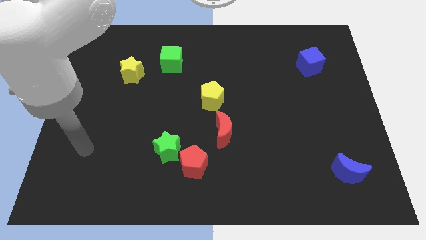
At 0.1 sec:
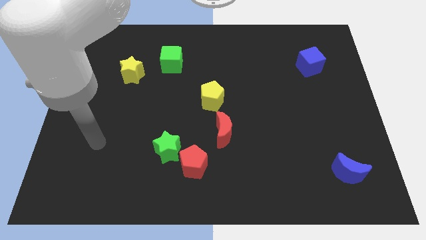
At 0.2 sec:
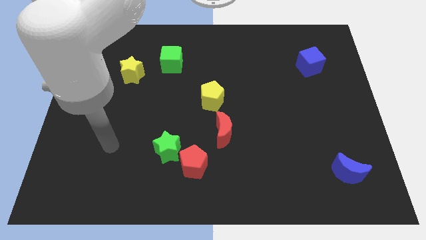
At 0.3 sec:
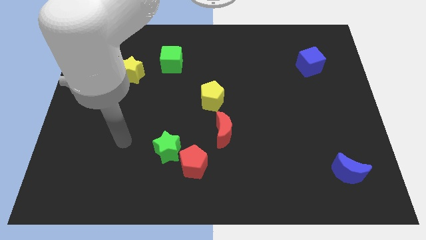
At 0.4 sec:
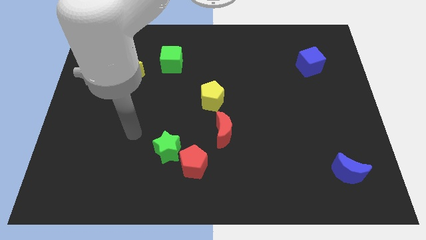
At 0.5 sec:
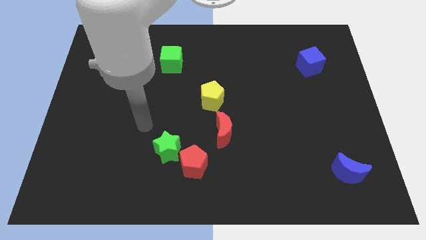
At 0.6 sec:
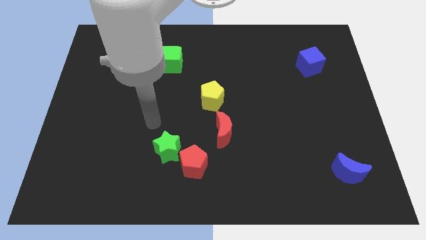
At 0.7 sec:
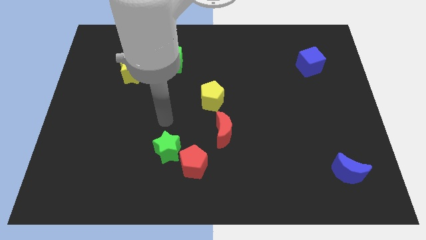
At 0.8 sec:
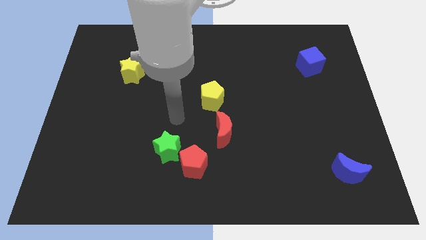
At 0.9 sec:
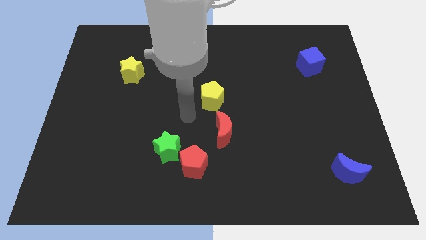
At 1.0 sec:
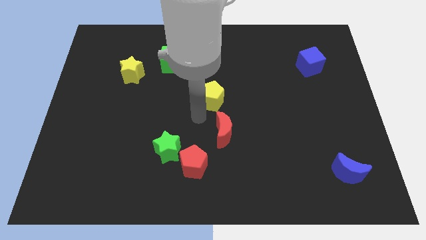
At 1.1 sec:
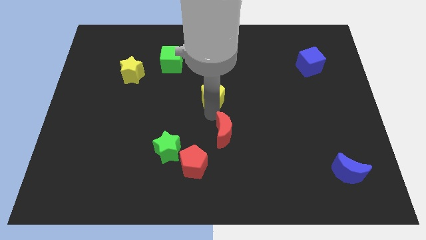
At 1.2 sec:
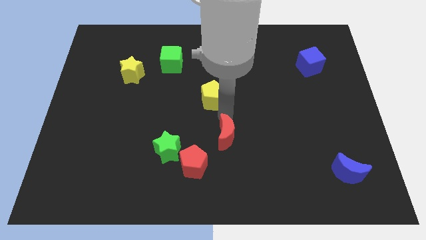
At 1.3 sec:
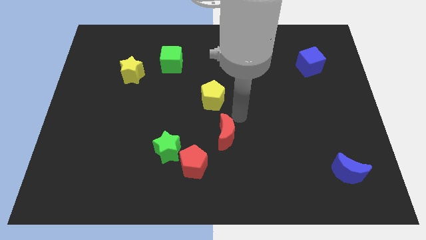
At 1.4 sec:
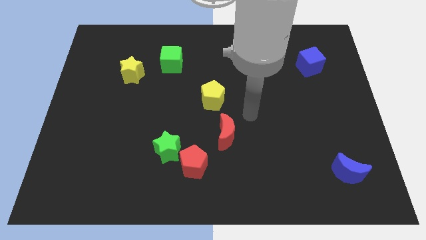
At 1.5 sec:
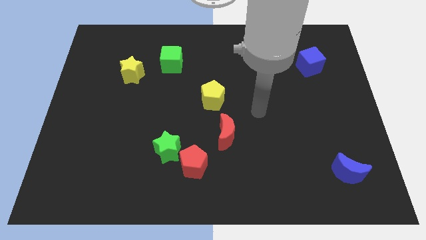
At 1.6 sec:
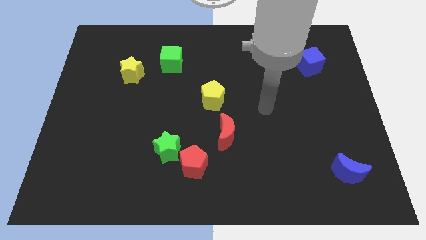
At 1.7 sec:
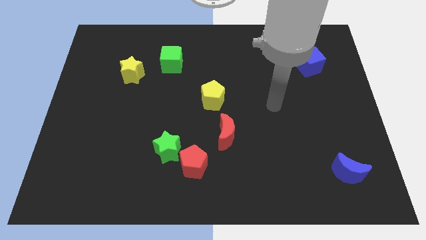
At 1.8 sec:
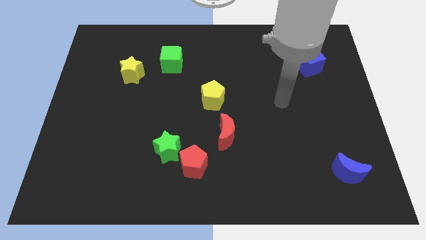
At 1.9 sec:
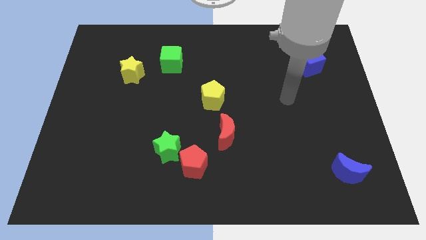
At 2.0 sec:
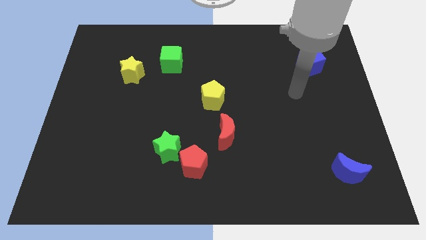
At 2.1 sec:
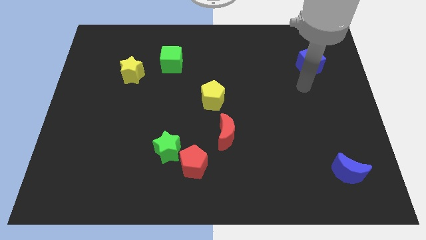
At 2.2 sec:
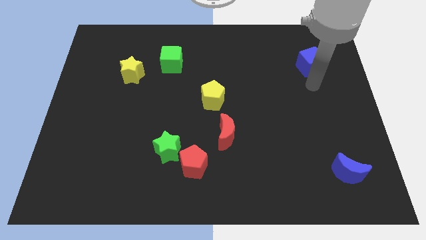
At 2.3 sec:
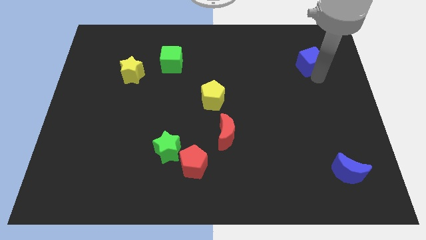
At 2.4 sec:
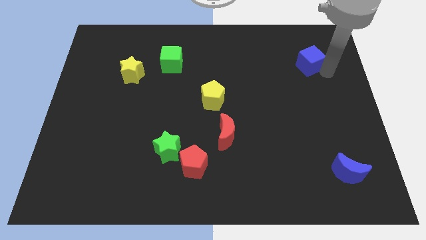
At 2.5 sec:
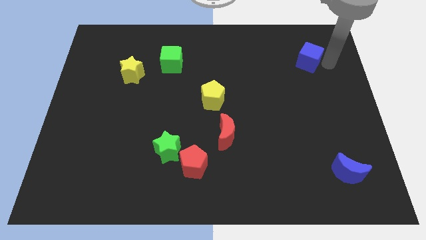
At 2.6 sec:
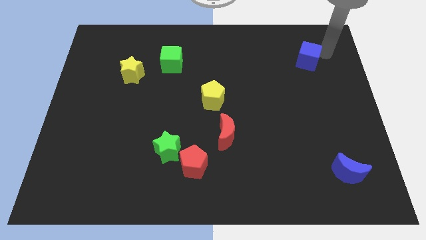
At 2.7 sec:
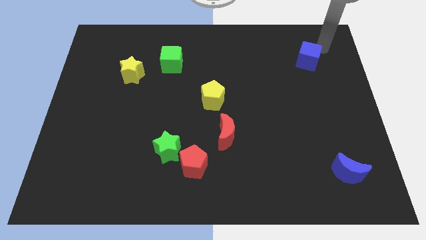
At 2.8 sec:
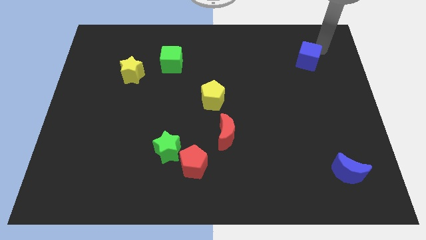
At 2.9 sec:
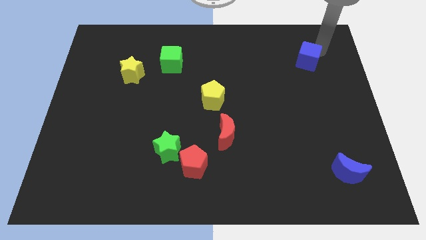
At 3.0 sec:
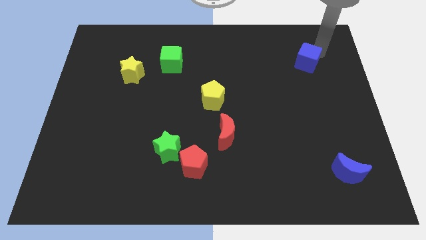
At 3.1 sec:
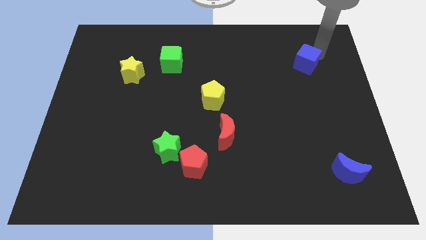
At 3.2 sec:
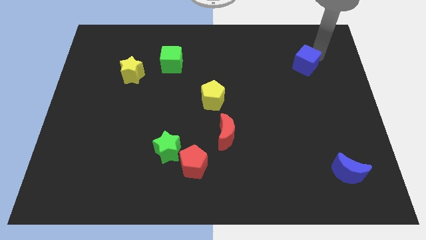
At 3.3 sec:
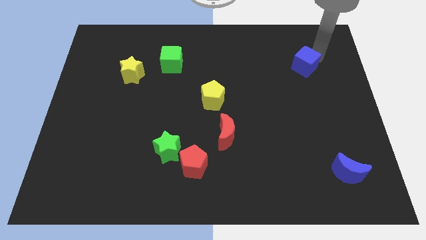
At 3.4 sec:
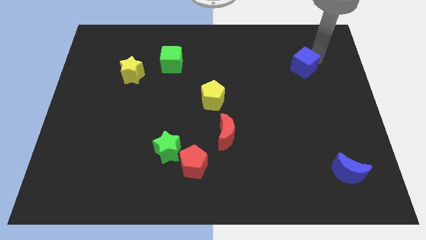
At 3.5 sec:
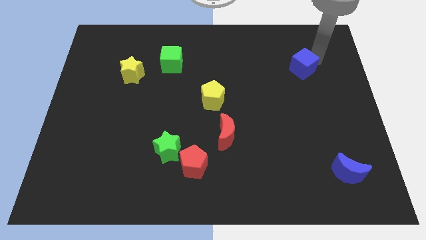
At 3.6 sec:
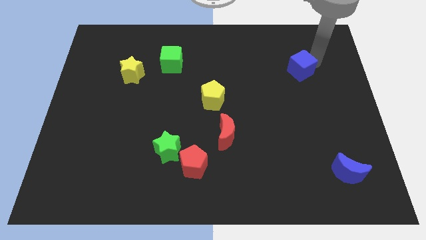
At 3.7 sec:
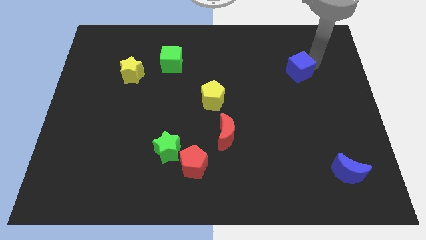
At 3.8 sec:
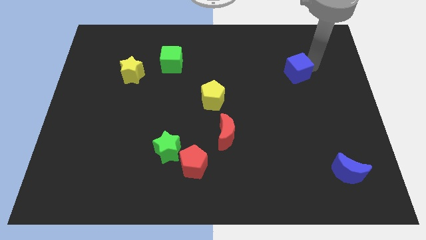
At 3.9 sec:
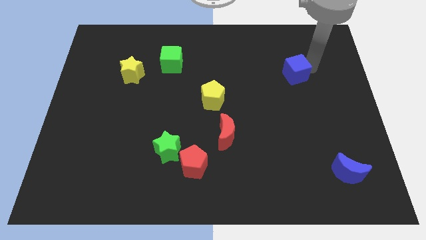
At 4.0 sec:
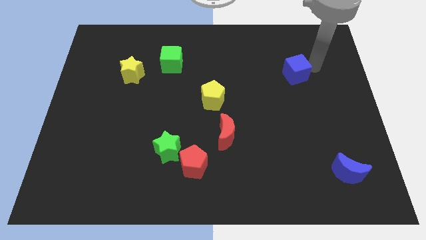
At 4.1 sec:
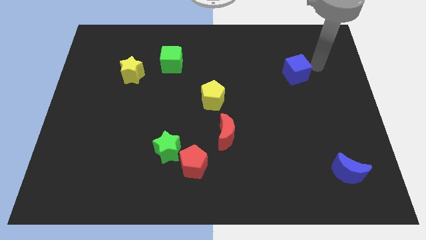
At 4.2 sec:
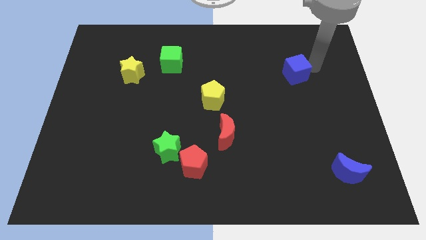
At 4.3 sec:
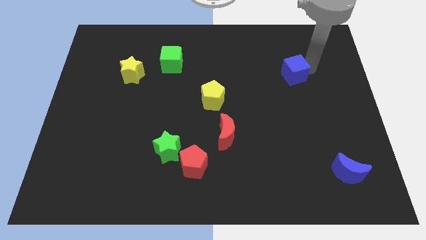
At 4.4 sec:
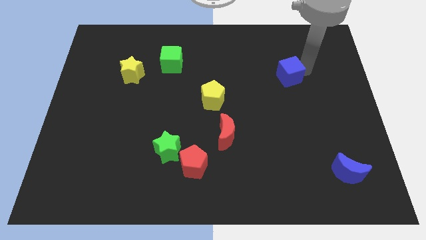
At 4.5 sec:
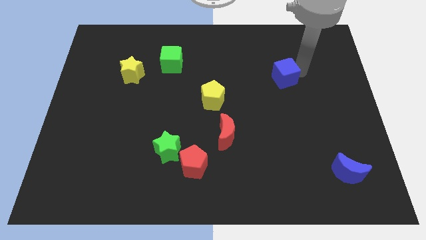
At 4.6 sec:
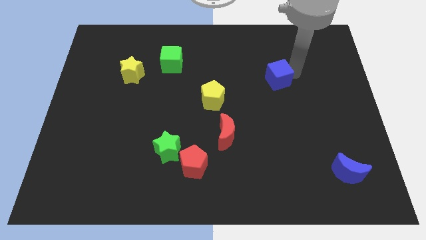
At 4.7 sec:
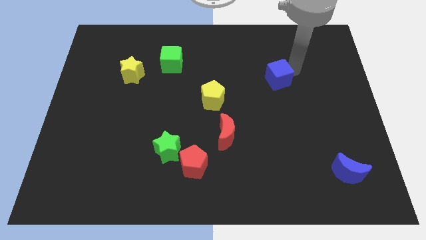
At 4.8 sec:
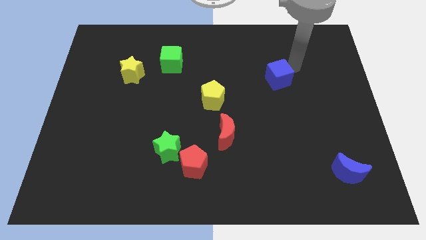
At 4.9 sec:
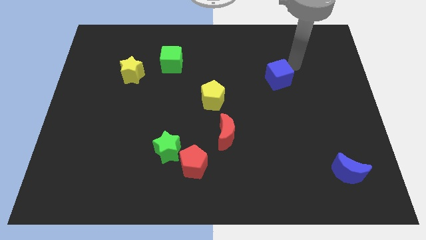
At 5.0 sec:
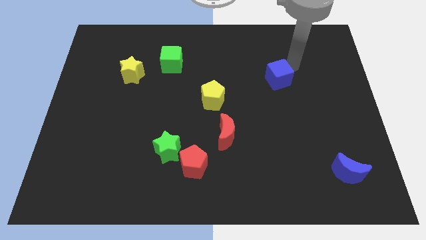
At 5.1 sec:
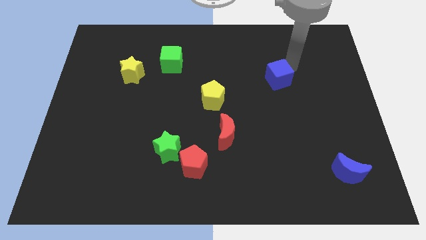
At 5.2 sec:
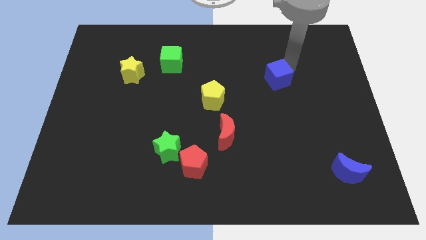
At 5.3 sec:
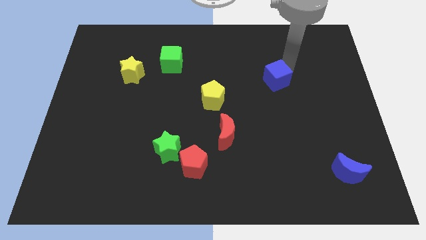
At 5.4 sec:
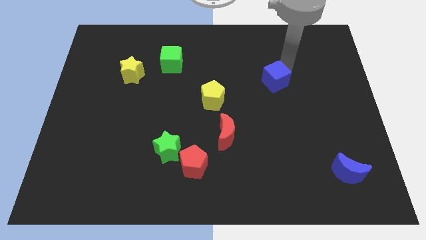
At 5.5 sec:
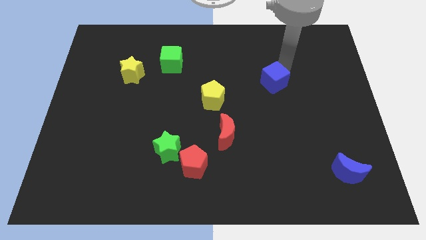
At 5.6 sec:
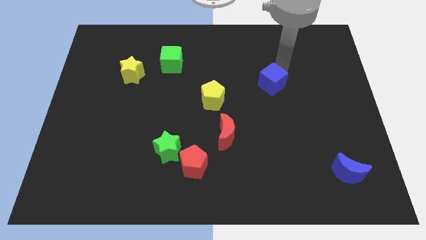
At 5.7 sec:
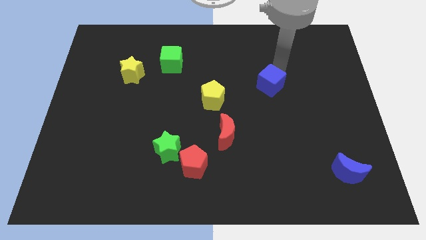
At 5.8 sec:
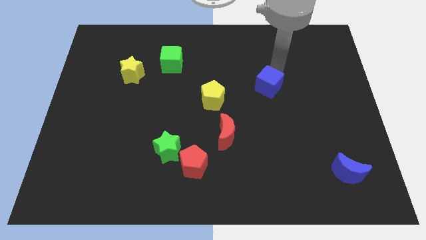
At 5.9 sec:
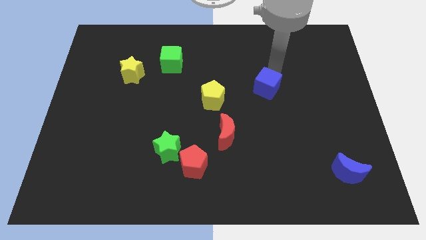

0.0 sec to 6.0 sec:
push the blue cube just right of the yellow pentagon

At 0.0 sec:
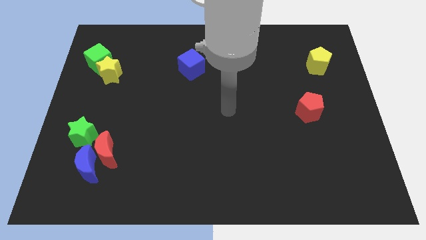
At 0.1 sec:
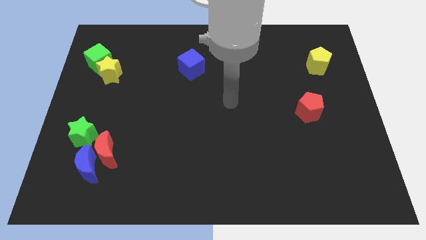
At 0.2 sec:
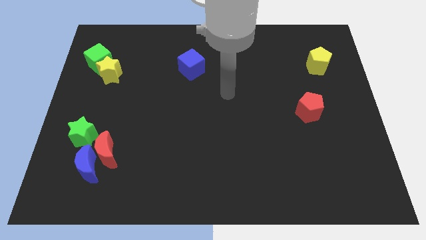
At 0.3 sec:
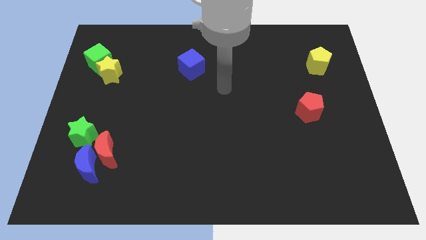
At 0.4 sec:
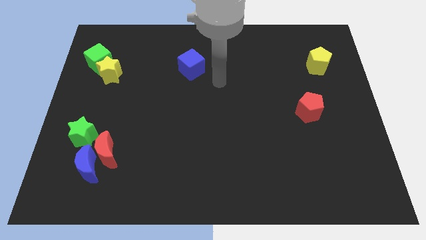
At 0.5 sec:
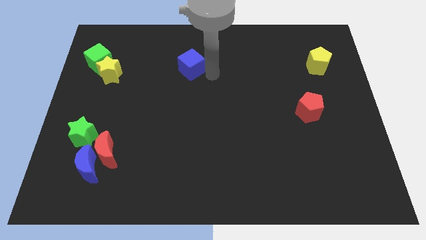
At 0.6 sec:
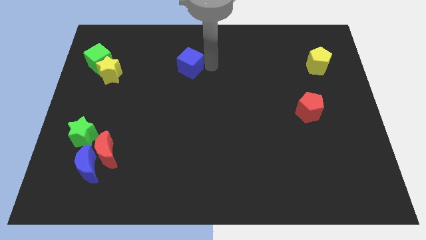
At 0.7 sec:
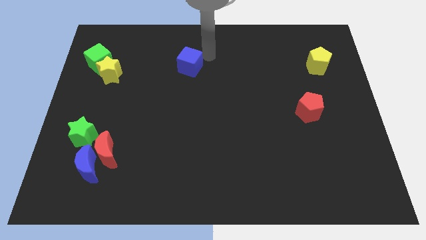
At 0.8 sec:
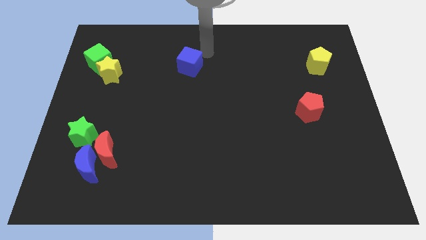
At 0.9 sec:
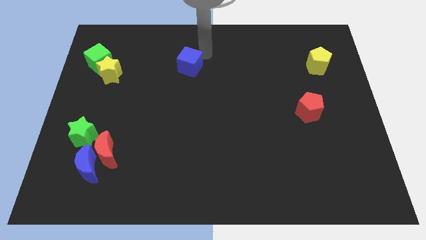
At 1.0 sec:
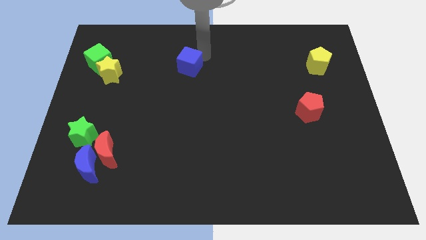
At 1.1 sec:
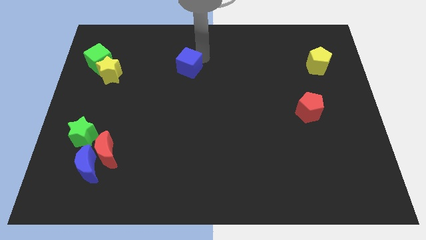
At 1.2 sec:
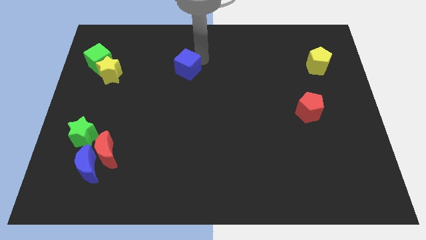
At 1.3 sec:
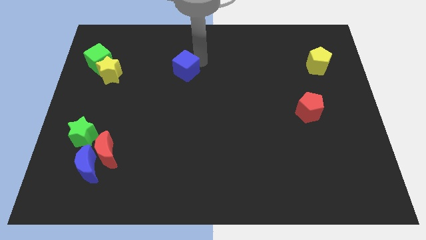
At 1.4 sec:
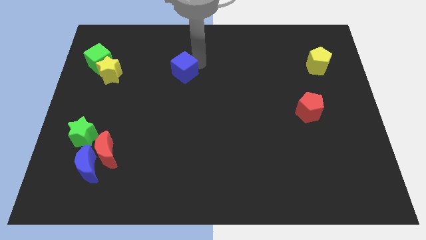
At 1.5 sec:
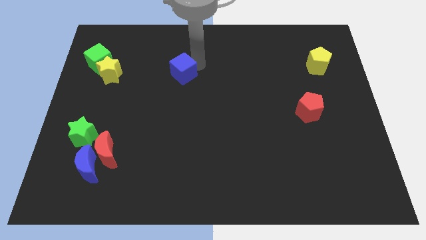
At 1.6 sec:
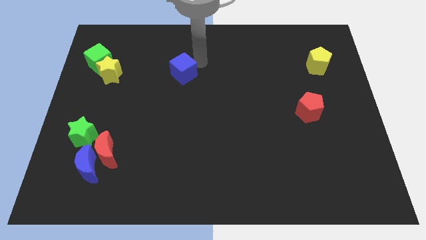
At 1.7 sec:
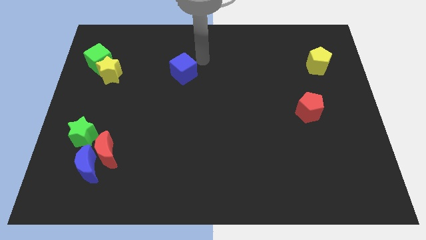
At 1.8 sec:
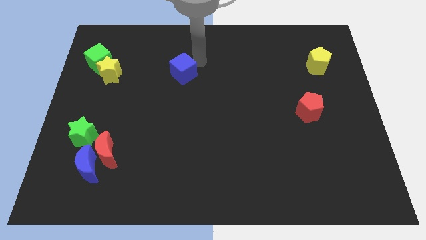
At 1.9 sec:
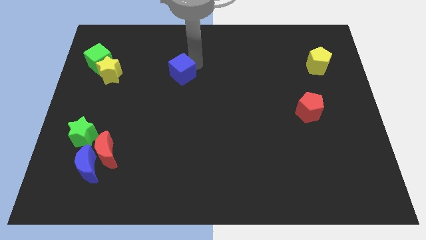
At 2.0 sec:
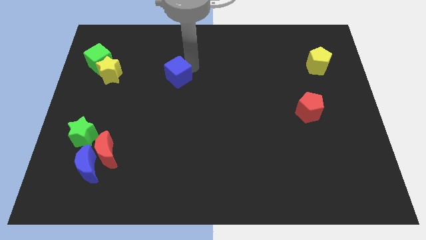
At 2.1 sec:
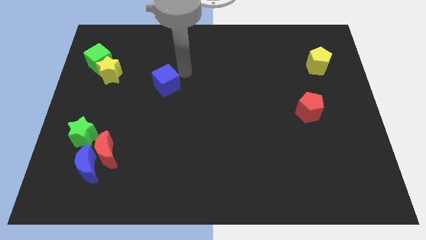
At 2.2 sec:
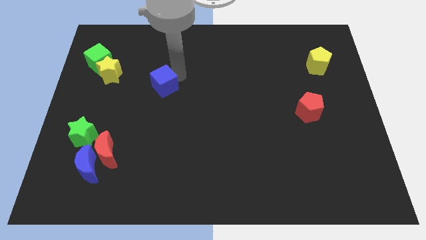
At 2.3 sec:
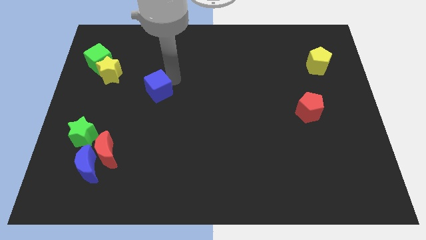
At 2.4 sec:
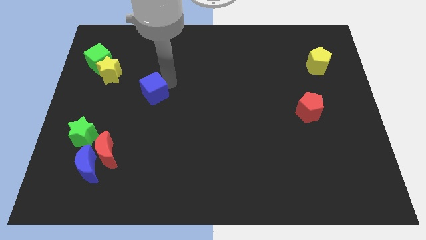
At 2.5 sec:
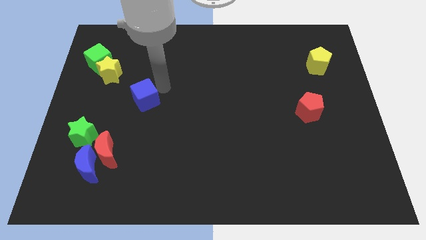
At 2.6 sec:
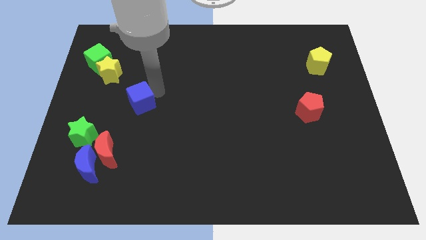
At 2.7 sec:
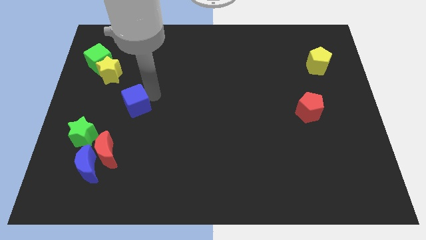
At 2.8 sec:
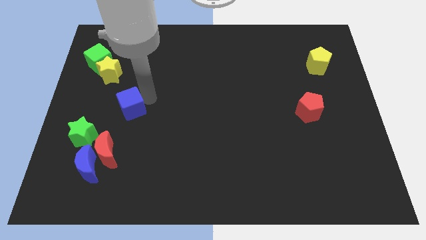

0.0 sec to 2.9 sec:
move the blue cube to the top right of the green star
